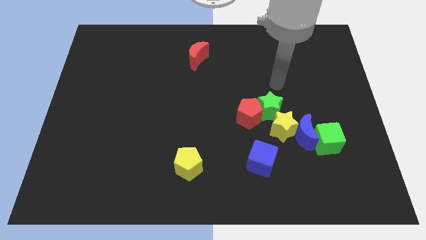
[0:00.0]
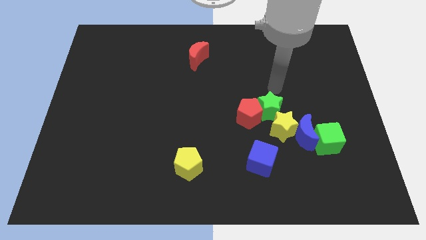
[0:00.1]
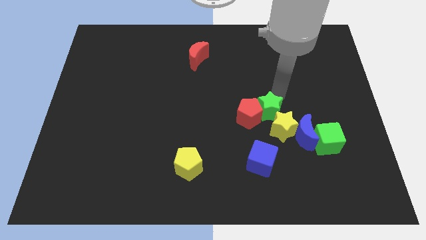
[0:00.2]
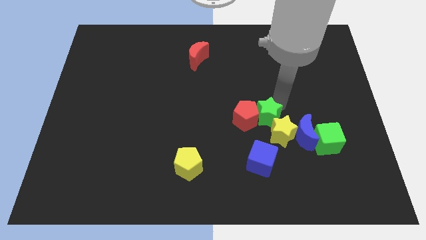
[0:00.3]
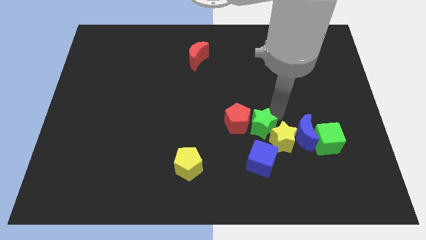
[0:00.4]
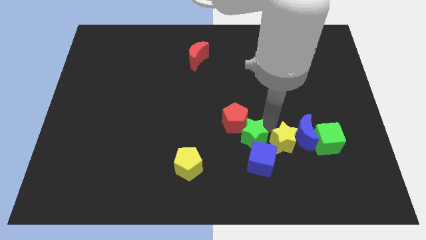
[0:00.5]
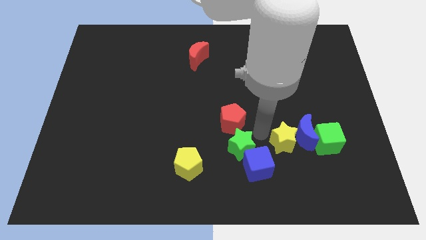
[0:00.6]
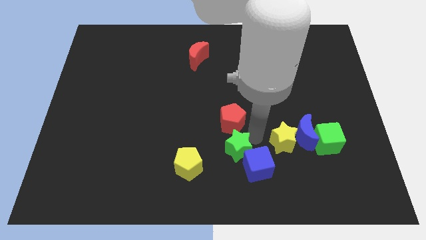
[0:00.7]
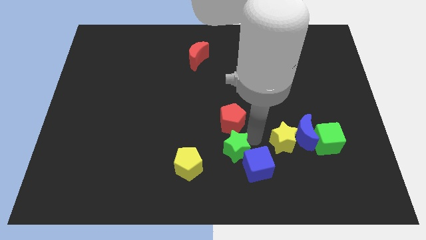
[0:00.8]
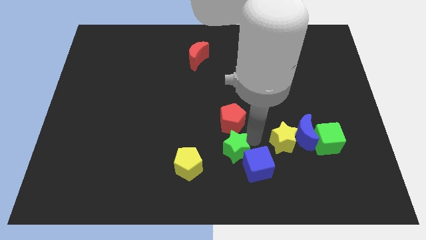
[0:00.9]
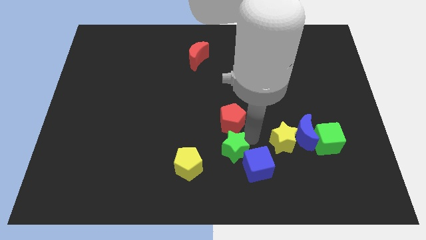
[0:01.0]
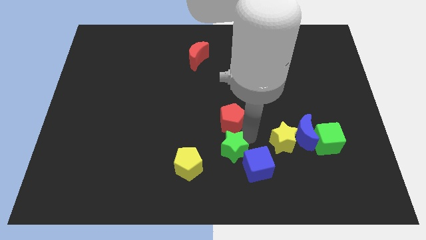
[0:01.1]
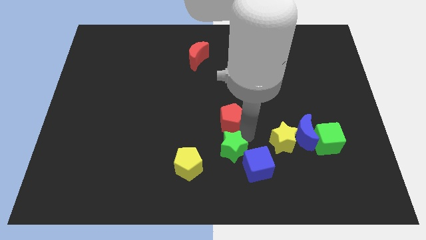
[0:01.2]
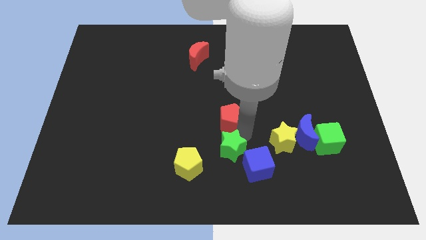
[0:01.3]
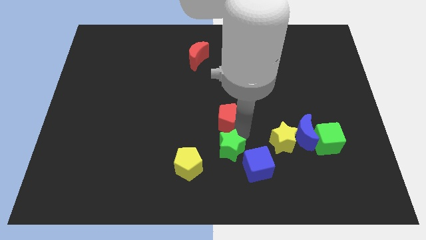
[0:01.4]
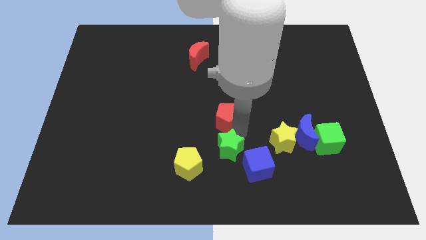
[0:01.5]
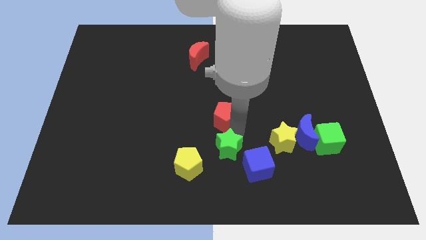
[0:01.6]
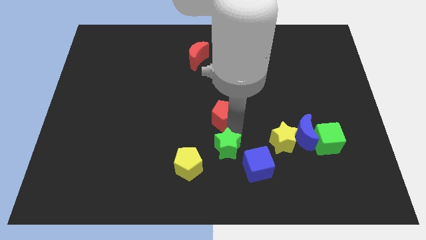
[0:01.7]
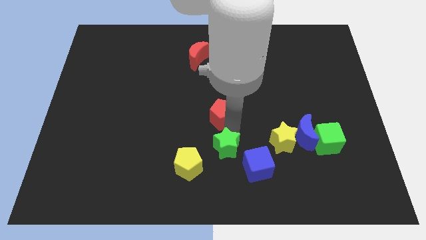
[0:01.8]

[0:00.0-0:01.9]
move the red pentagon away from the green star and yellow star

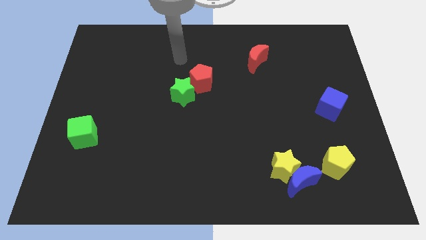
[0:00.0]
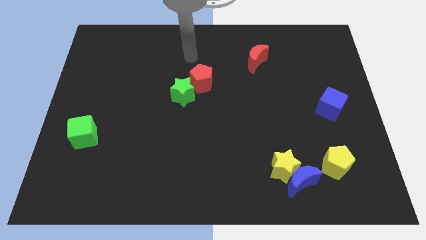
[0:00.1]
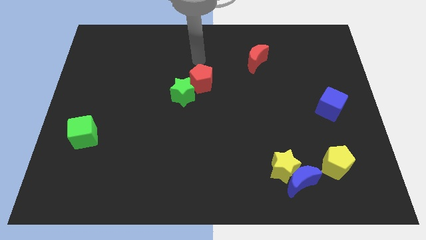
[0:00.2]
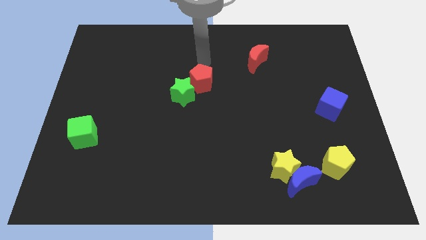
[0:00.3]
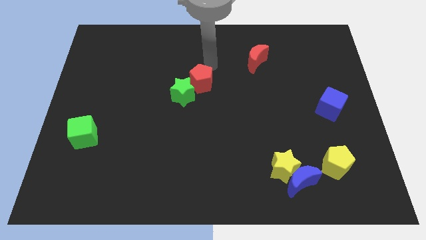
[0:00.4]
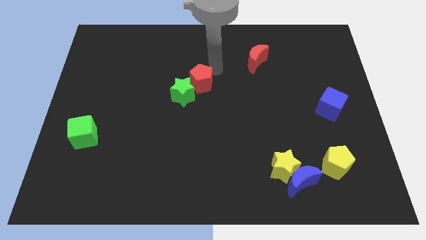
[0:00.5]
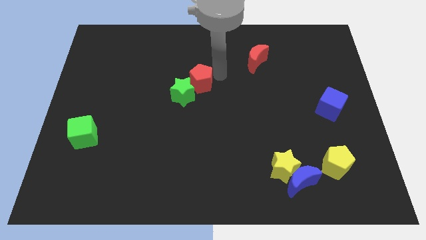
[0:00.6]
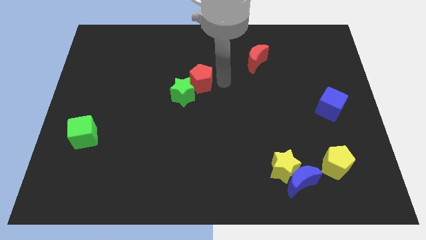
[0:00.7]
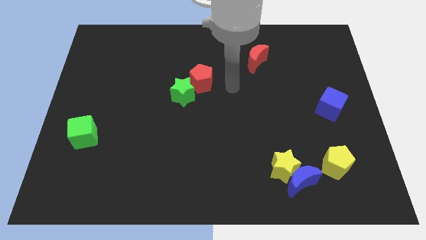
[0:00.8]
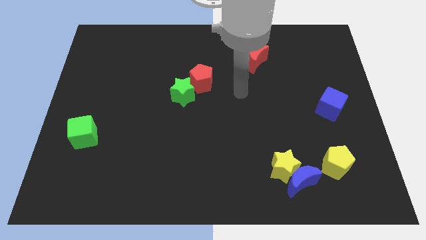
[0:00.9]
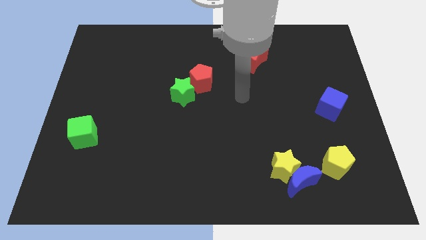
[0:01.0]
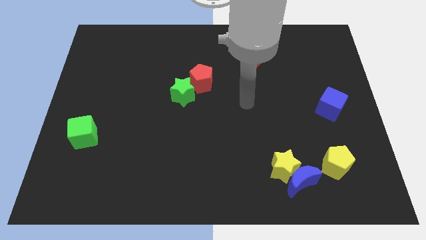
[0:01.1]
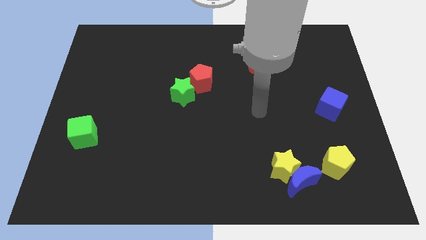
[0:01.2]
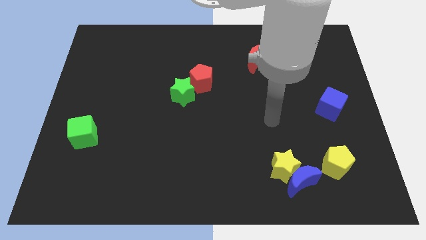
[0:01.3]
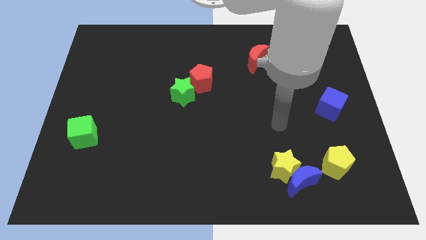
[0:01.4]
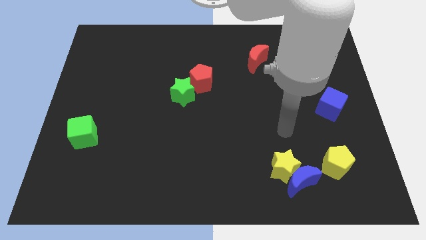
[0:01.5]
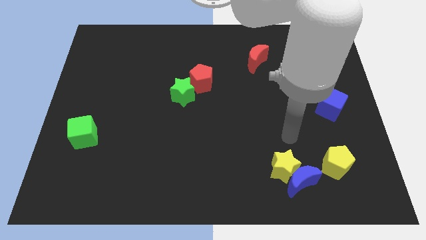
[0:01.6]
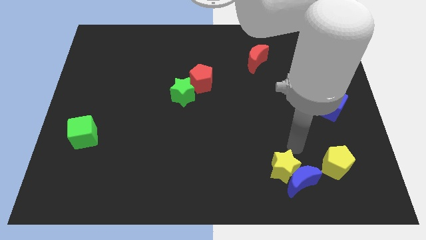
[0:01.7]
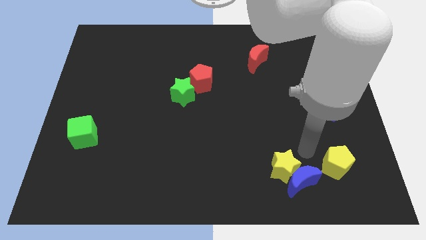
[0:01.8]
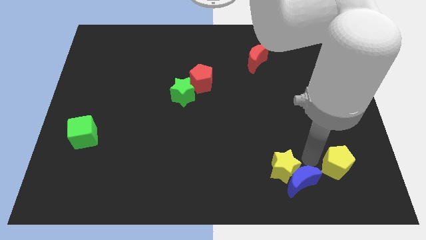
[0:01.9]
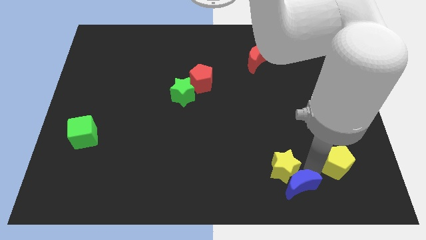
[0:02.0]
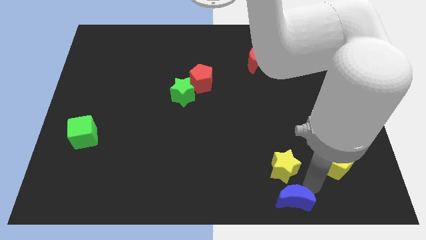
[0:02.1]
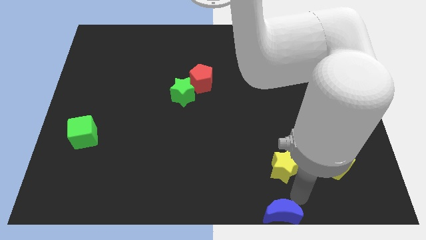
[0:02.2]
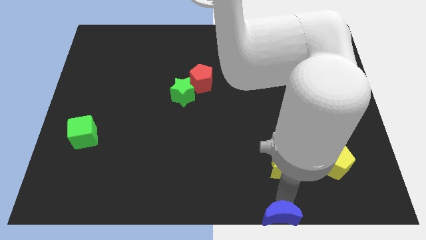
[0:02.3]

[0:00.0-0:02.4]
move the yellow star away from the blue moon

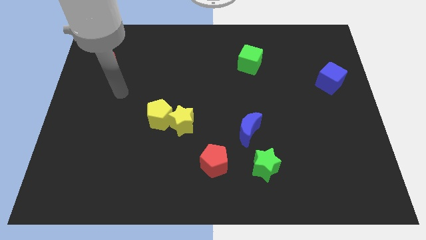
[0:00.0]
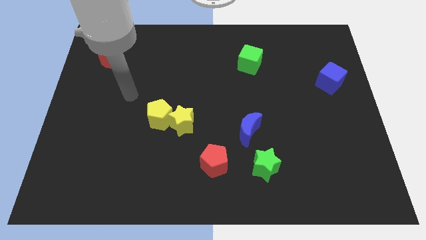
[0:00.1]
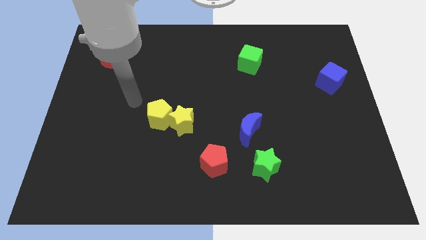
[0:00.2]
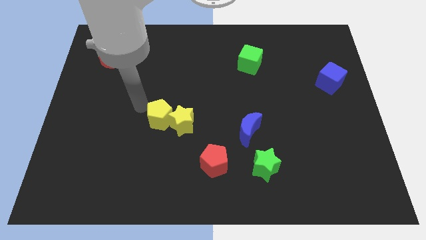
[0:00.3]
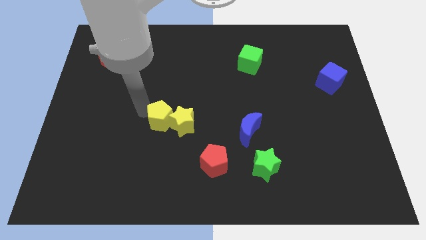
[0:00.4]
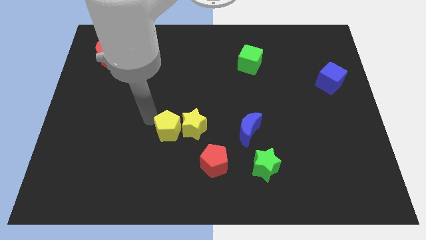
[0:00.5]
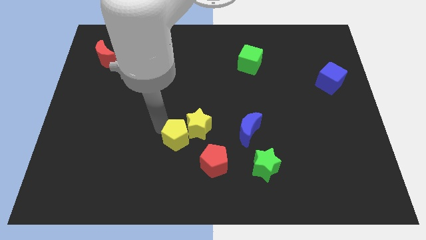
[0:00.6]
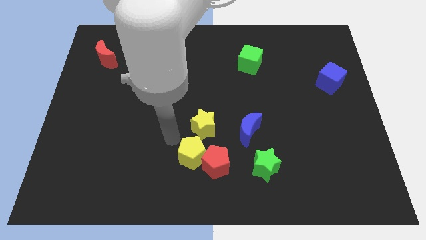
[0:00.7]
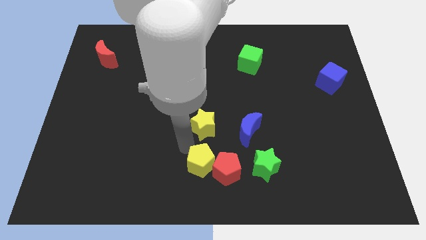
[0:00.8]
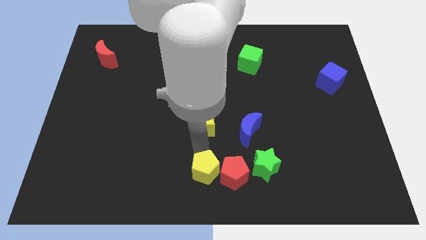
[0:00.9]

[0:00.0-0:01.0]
separate the yellow star from the yellow pentagon

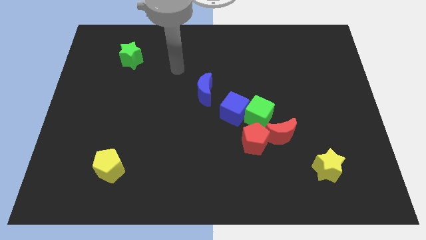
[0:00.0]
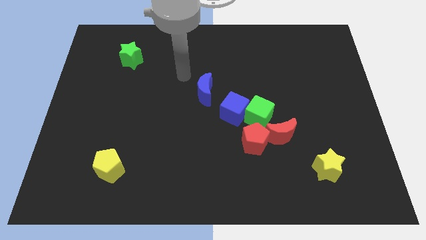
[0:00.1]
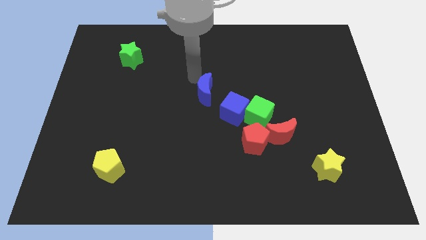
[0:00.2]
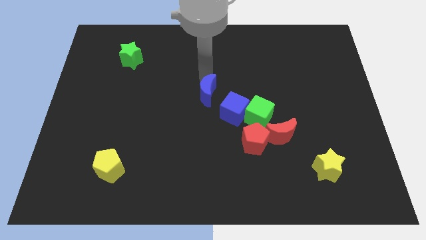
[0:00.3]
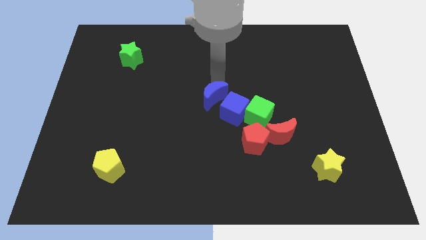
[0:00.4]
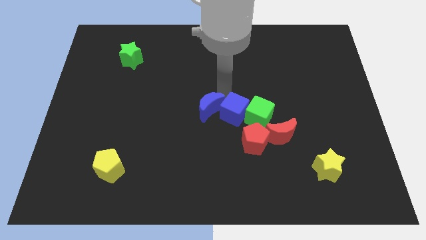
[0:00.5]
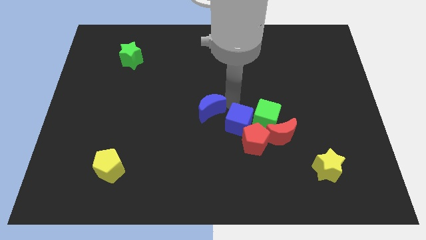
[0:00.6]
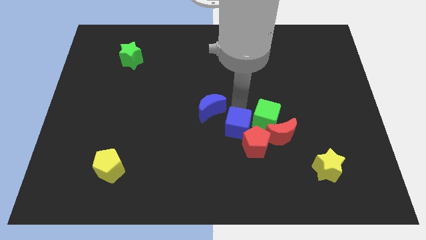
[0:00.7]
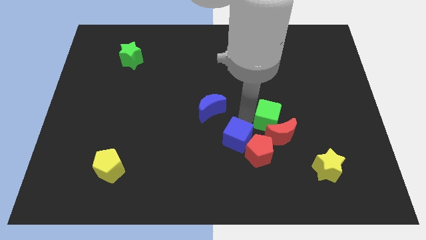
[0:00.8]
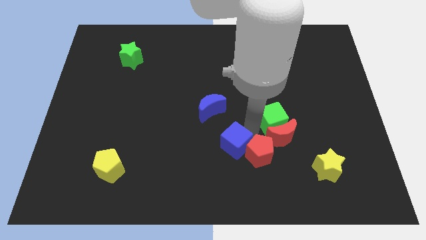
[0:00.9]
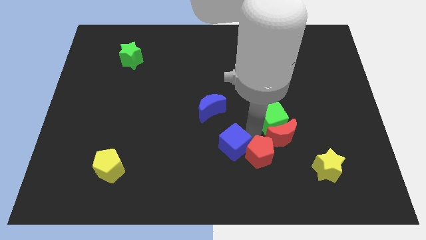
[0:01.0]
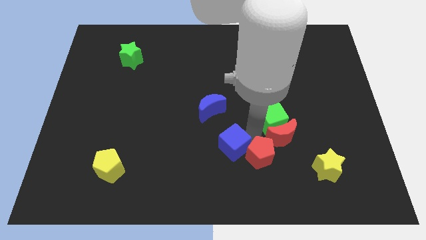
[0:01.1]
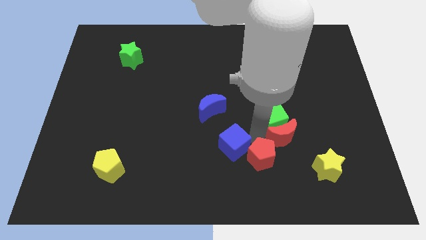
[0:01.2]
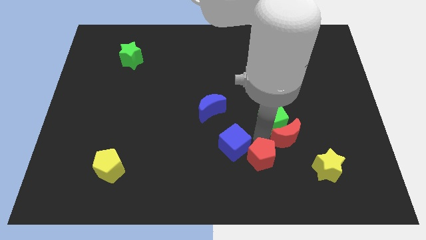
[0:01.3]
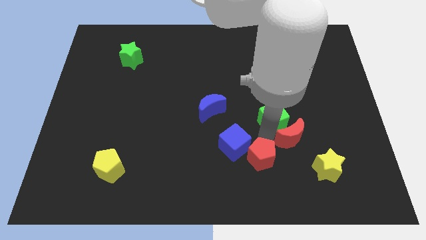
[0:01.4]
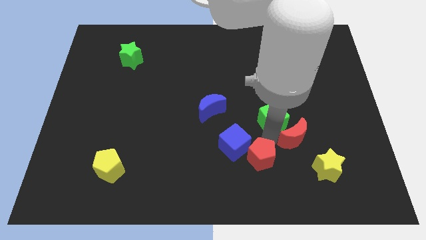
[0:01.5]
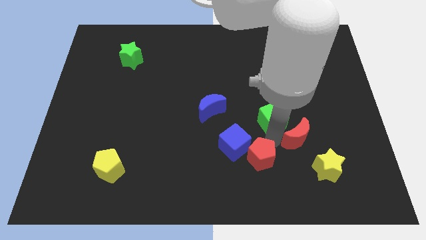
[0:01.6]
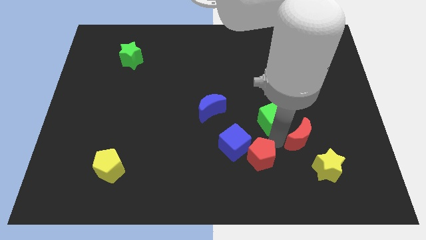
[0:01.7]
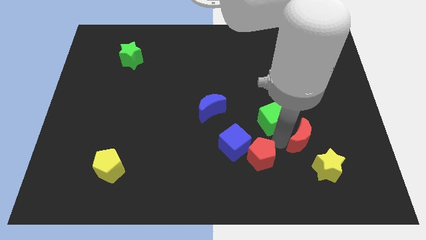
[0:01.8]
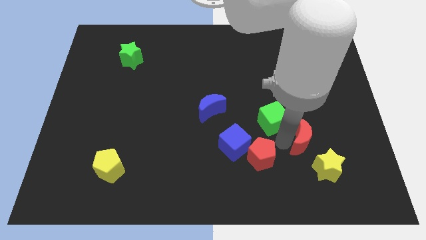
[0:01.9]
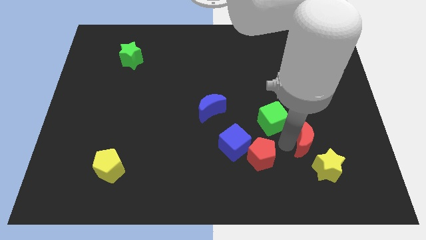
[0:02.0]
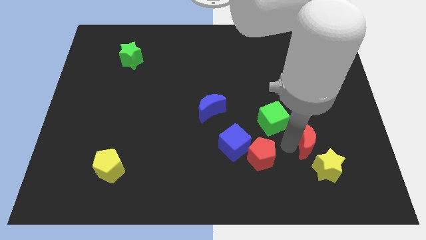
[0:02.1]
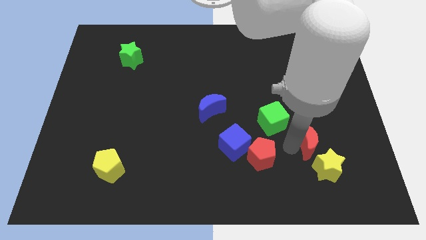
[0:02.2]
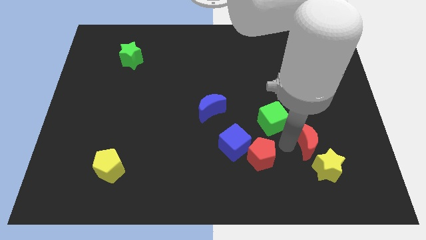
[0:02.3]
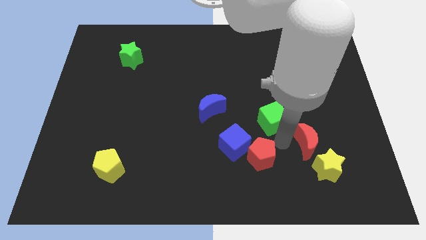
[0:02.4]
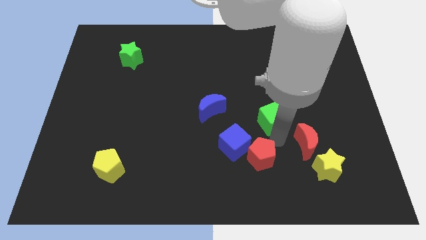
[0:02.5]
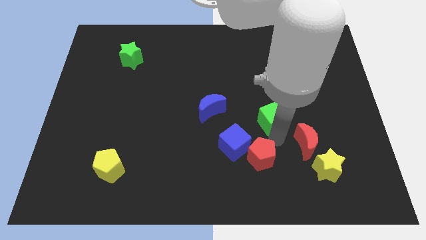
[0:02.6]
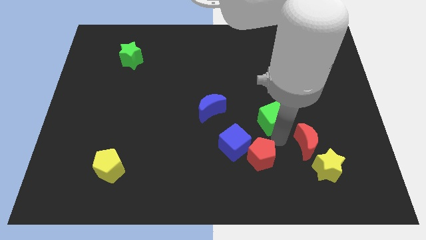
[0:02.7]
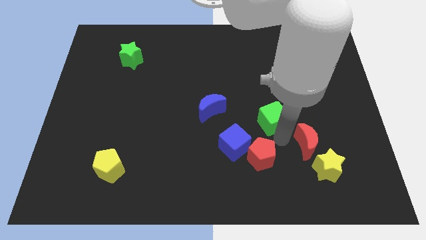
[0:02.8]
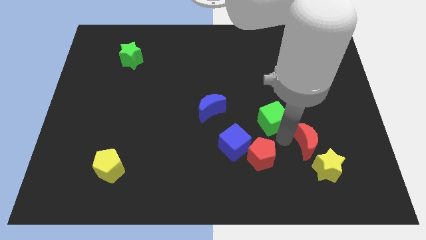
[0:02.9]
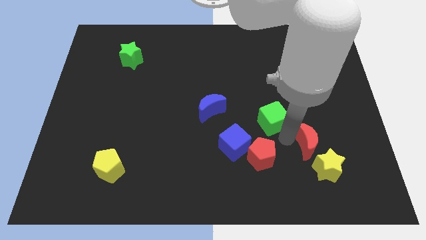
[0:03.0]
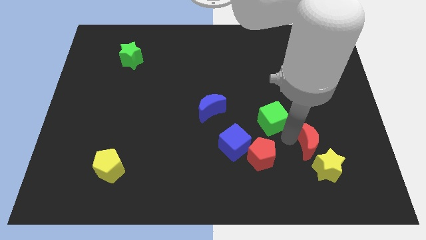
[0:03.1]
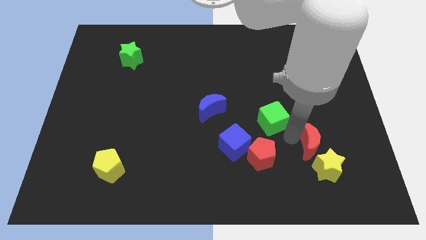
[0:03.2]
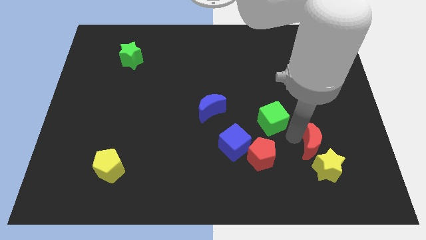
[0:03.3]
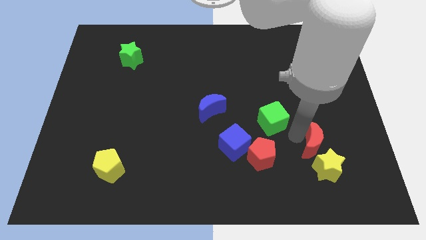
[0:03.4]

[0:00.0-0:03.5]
separate the red moon from the red pentagon and green cube

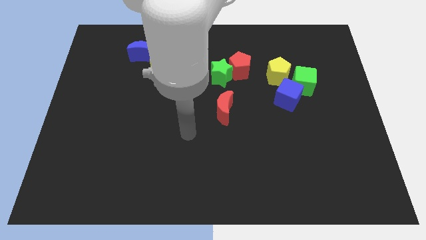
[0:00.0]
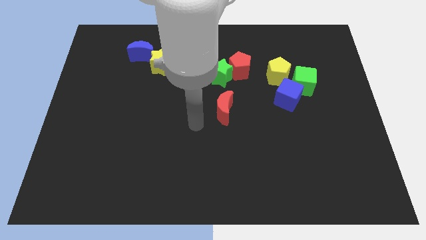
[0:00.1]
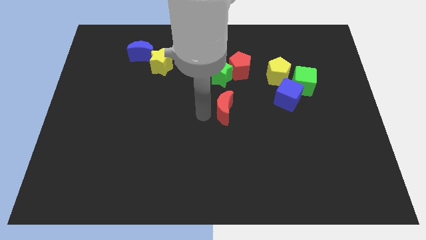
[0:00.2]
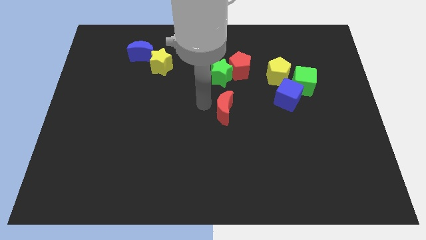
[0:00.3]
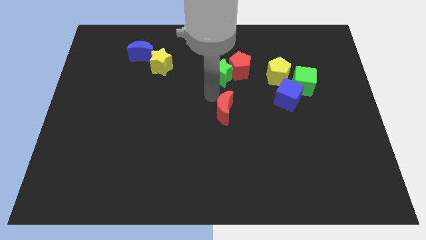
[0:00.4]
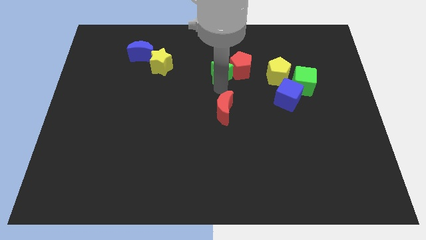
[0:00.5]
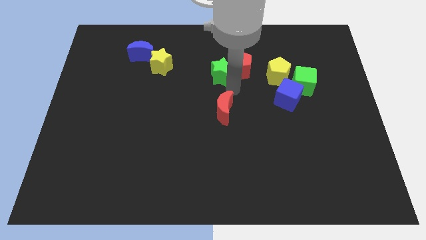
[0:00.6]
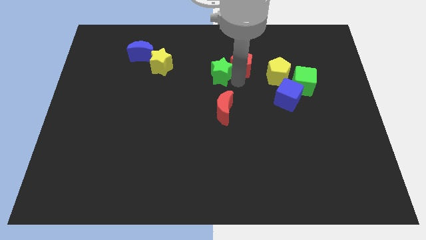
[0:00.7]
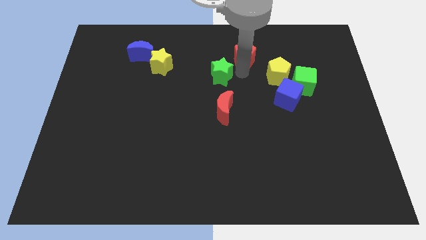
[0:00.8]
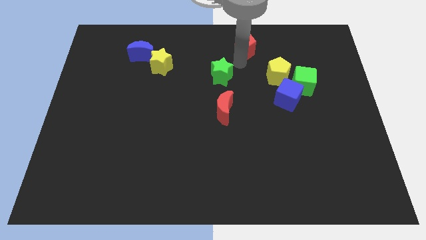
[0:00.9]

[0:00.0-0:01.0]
separate the green star from the red pentagon
